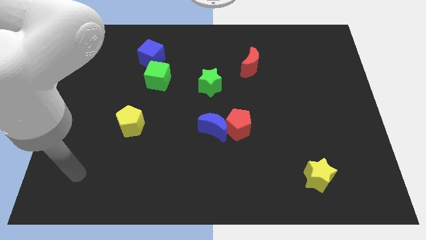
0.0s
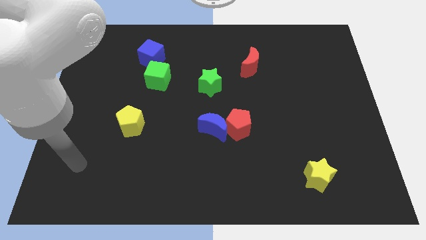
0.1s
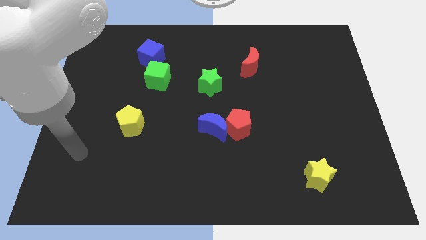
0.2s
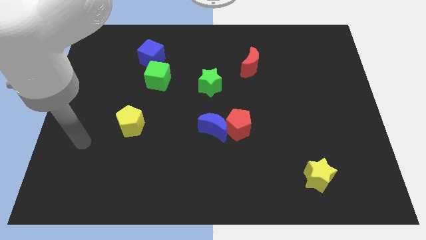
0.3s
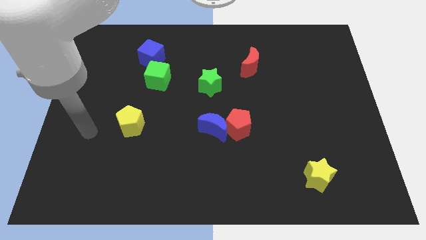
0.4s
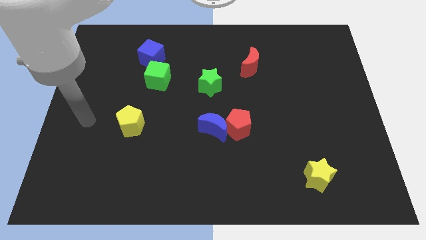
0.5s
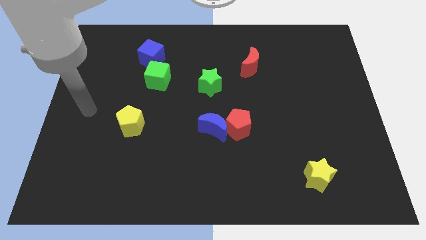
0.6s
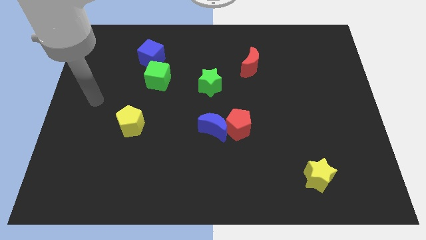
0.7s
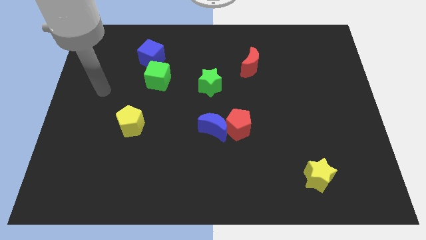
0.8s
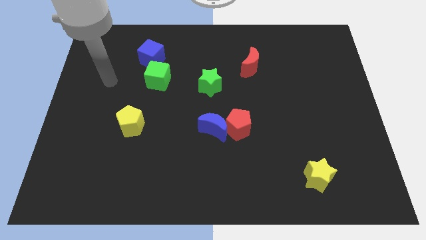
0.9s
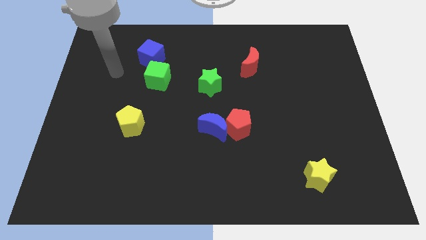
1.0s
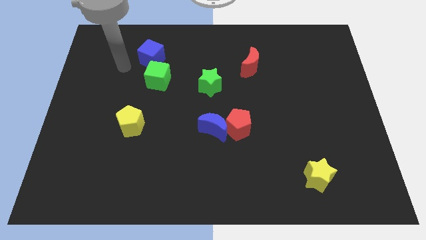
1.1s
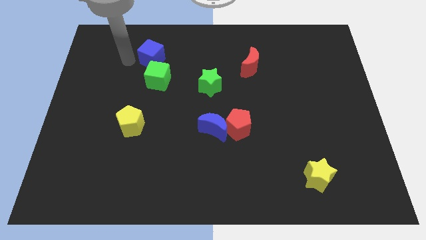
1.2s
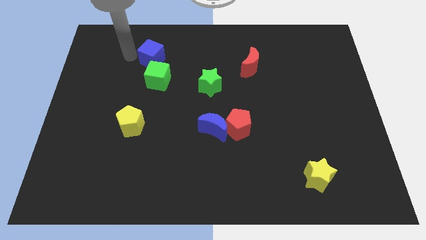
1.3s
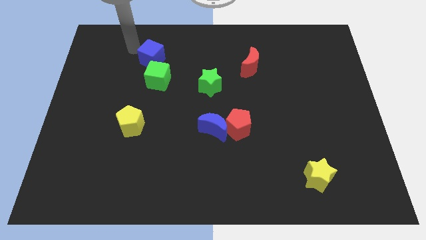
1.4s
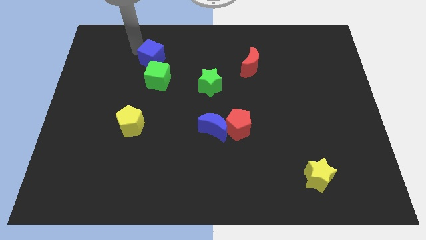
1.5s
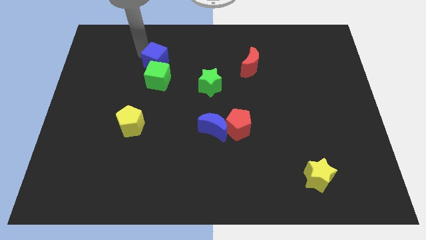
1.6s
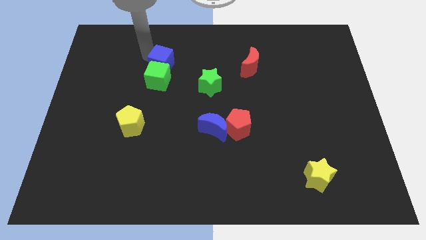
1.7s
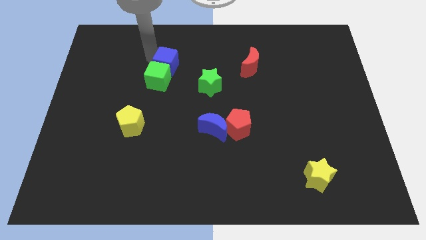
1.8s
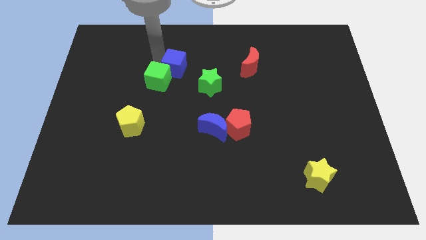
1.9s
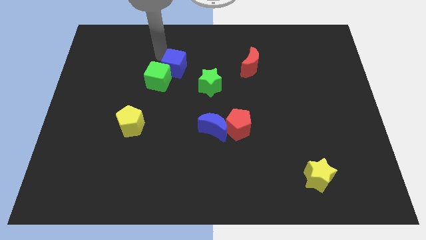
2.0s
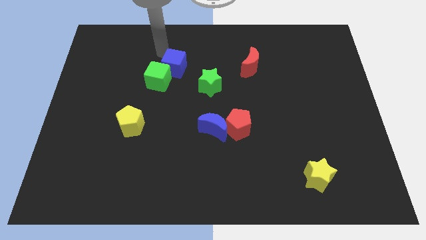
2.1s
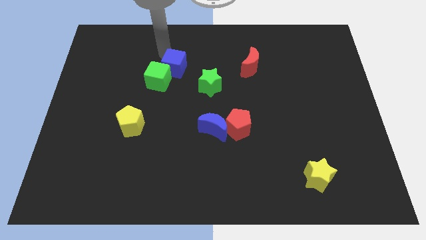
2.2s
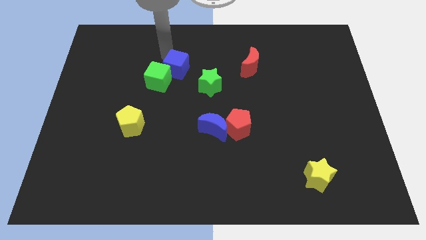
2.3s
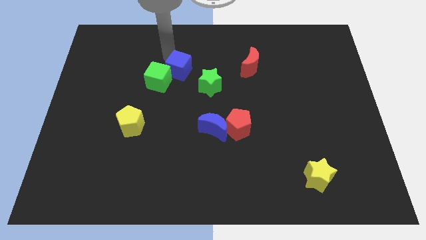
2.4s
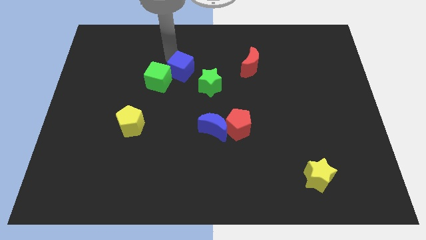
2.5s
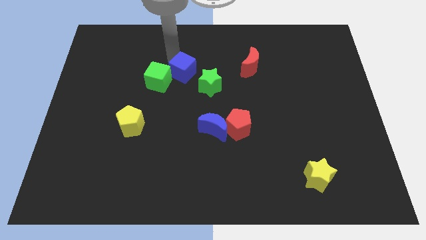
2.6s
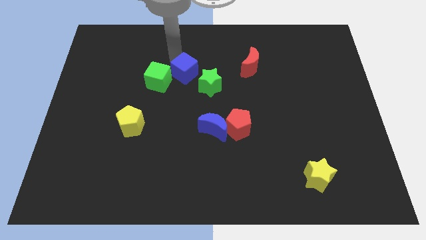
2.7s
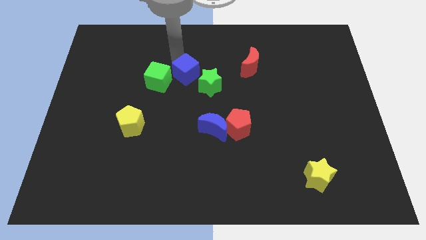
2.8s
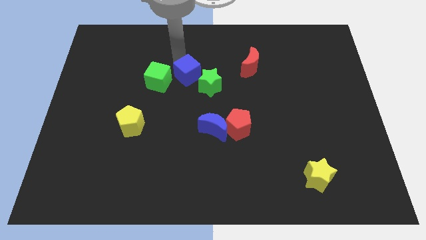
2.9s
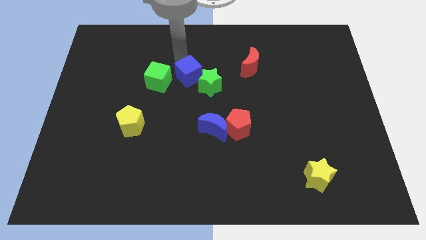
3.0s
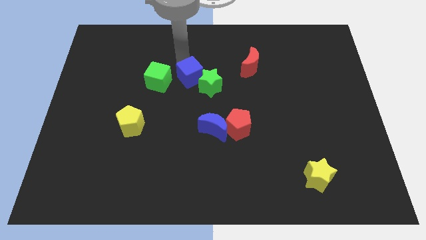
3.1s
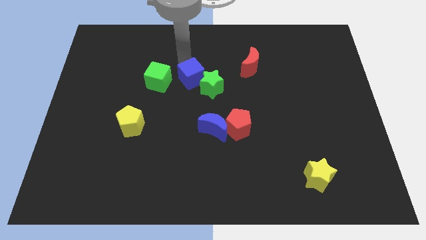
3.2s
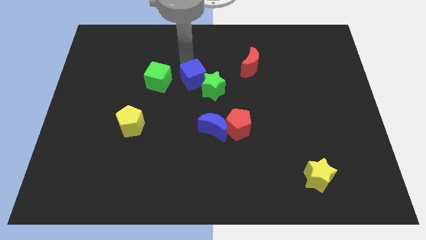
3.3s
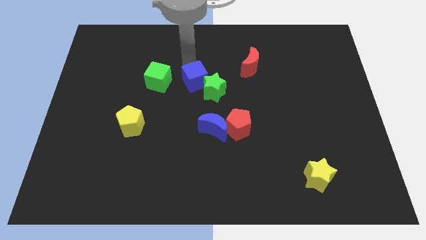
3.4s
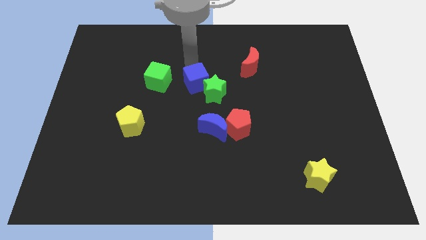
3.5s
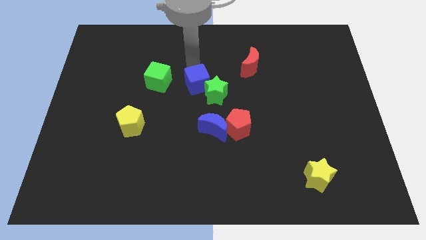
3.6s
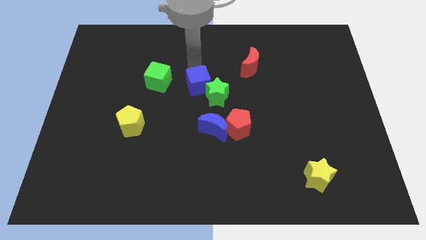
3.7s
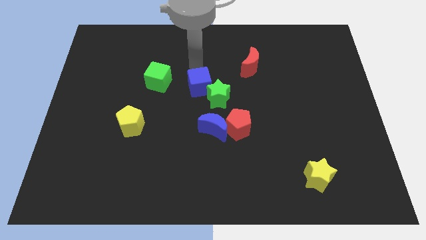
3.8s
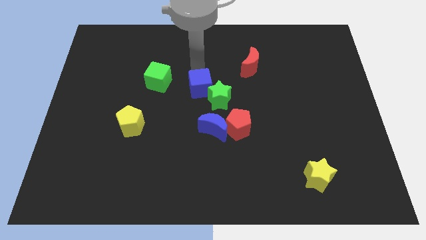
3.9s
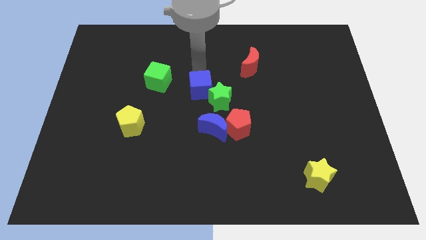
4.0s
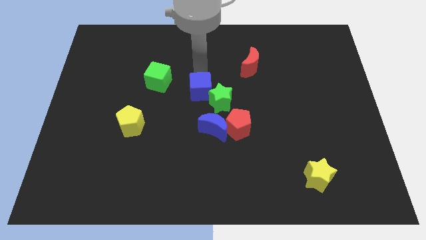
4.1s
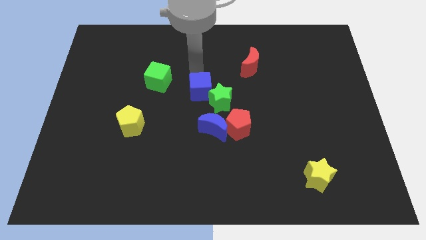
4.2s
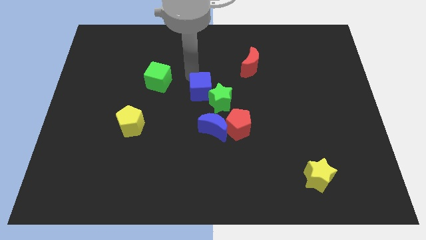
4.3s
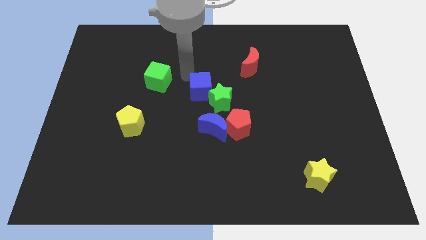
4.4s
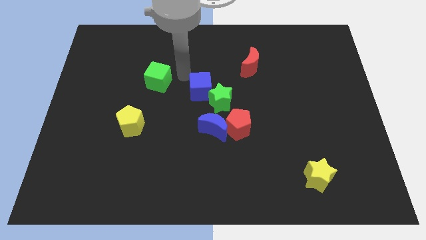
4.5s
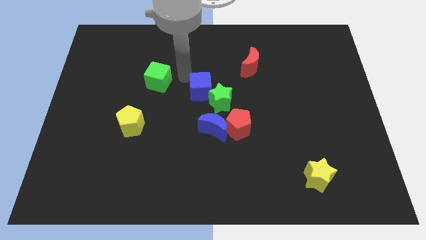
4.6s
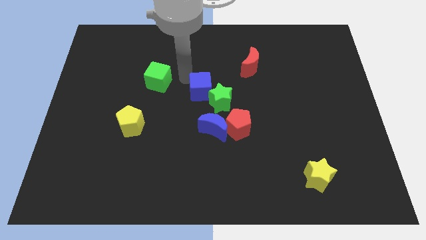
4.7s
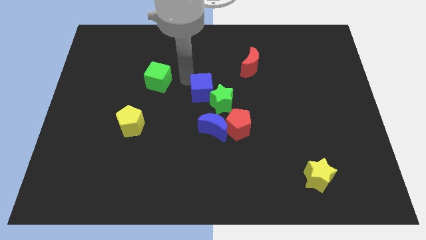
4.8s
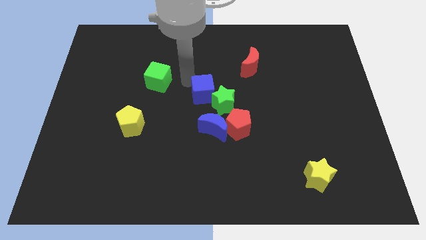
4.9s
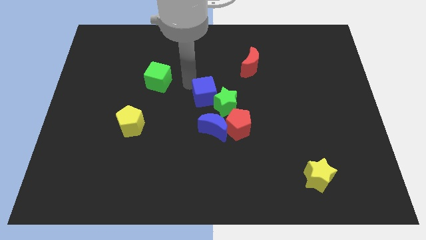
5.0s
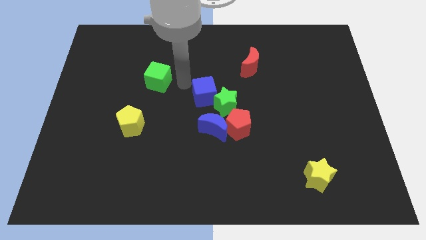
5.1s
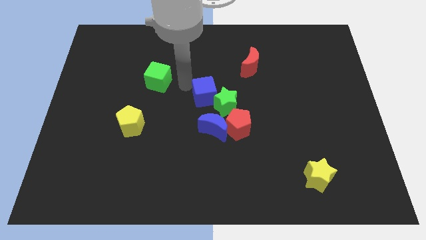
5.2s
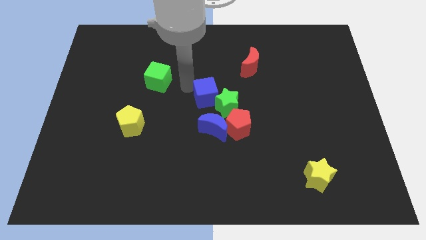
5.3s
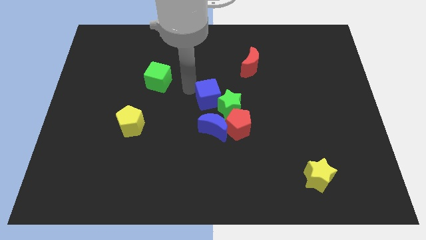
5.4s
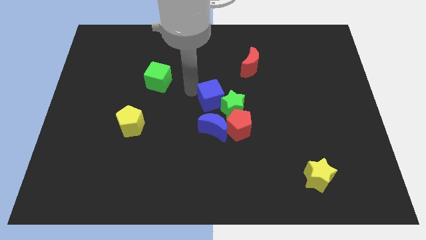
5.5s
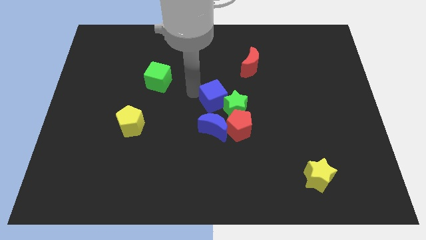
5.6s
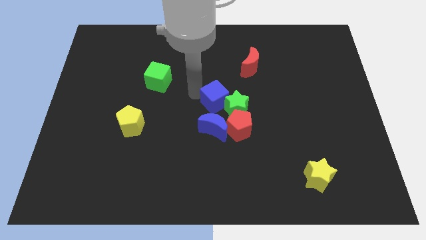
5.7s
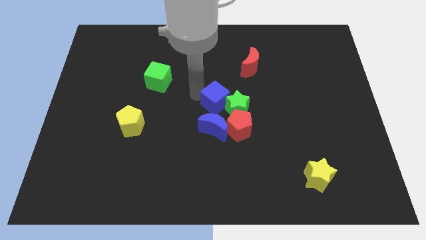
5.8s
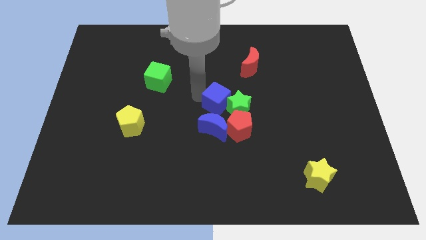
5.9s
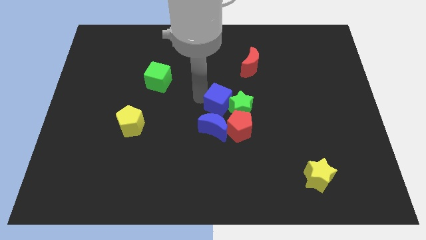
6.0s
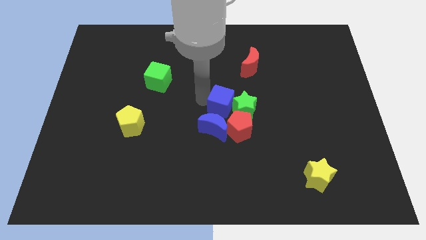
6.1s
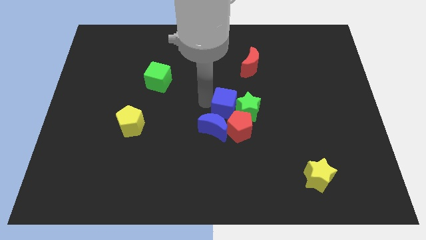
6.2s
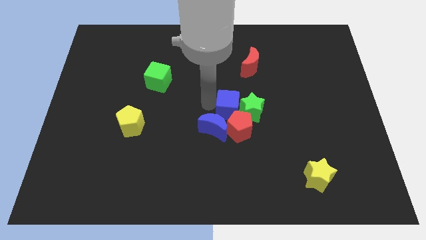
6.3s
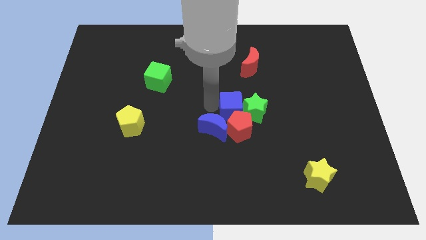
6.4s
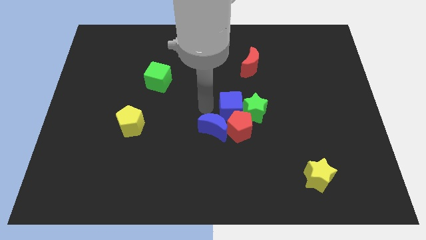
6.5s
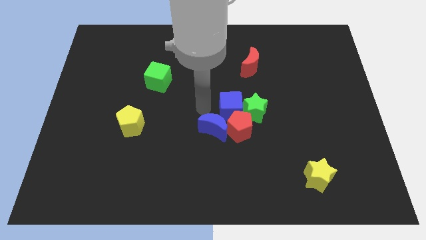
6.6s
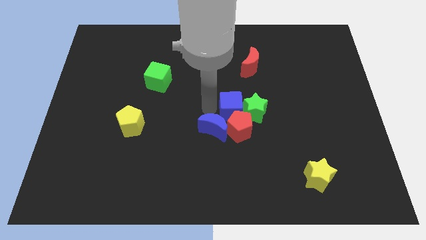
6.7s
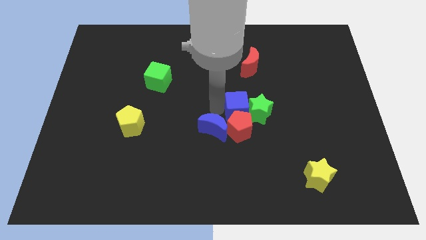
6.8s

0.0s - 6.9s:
move the blue cube to the top right of the red pentagon
